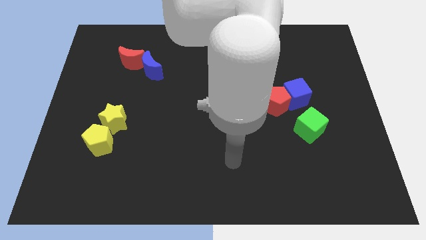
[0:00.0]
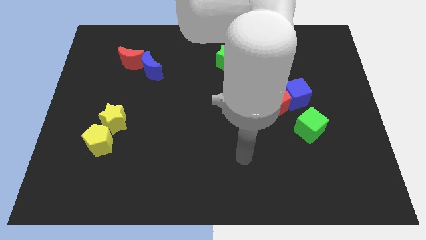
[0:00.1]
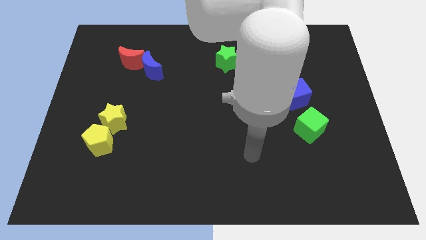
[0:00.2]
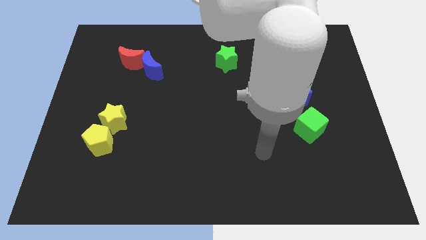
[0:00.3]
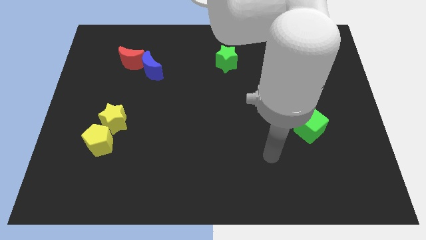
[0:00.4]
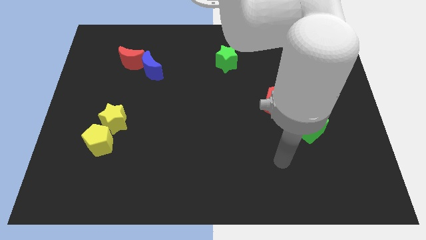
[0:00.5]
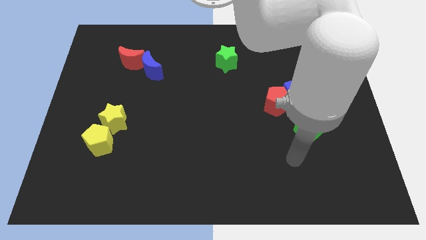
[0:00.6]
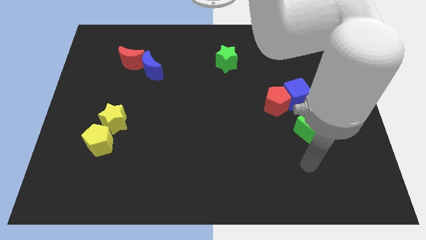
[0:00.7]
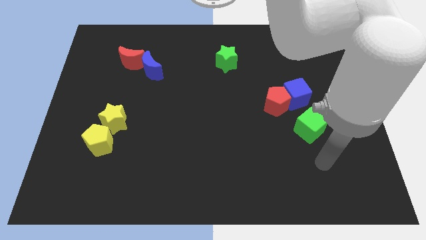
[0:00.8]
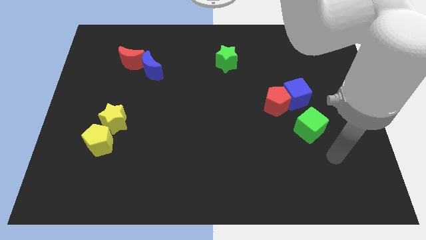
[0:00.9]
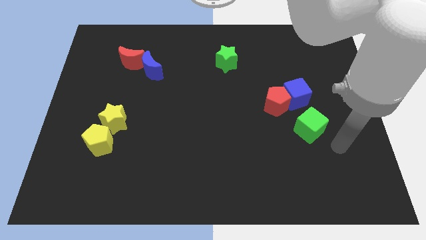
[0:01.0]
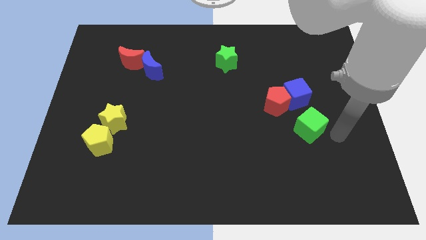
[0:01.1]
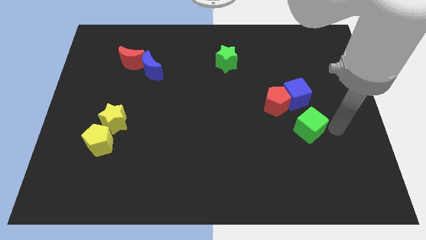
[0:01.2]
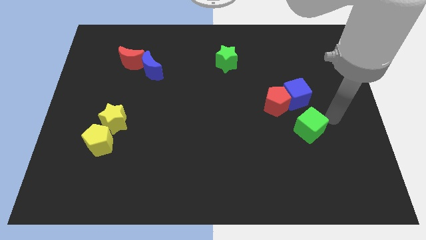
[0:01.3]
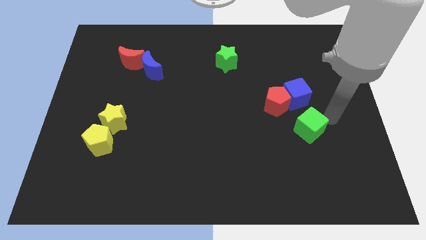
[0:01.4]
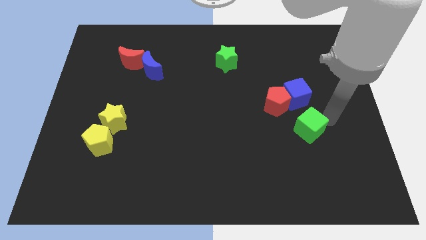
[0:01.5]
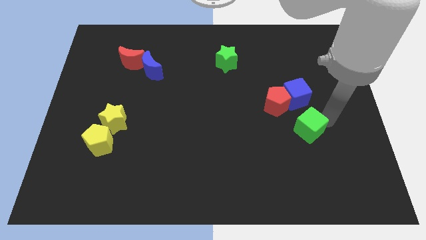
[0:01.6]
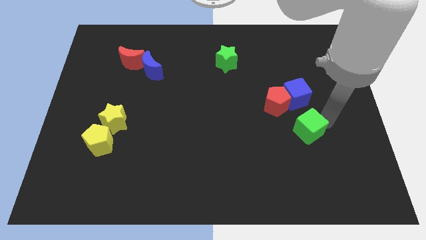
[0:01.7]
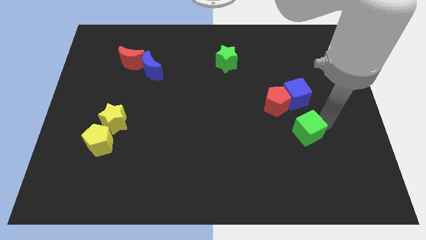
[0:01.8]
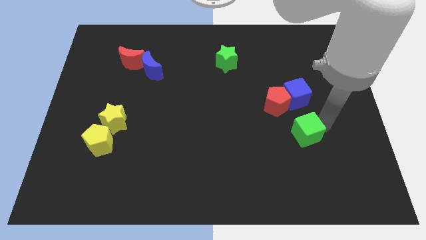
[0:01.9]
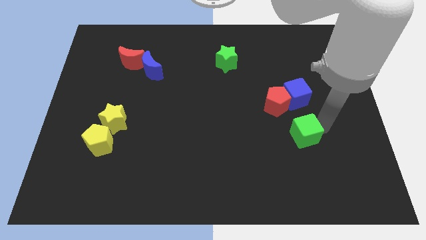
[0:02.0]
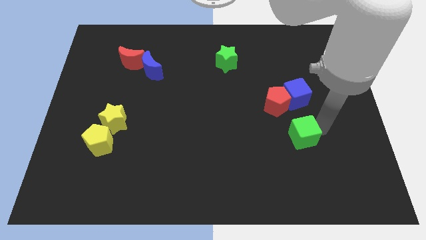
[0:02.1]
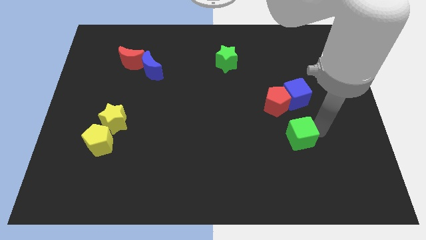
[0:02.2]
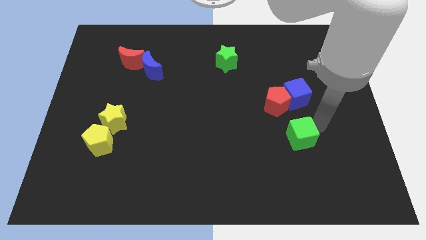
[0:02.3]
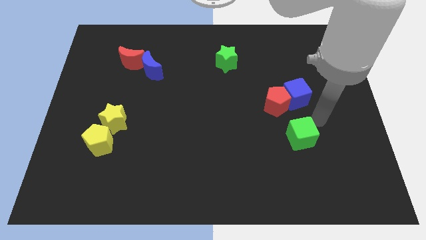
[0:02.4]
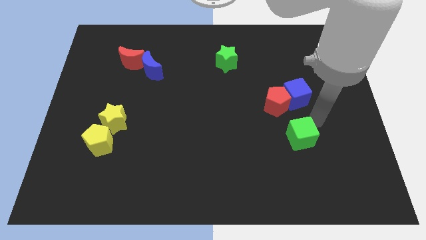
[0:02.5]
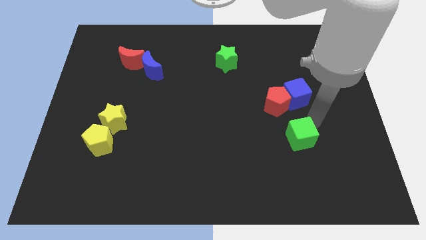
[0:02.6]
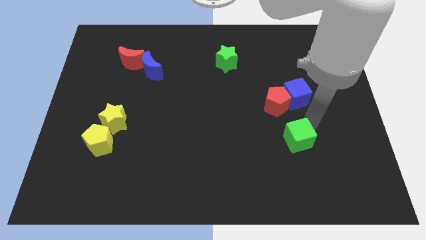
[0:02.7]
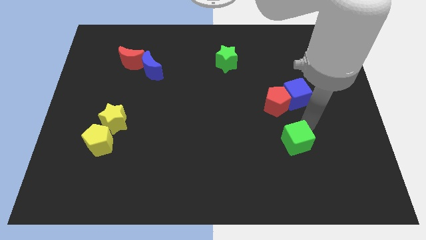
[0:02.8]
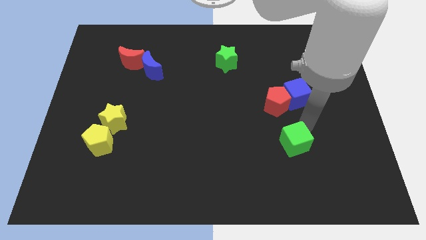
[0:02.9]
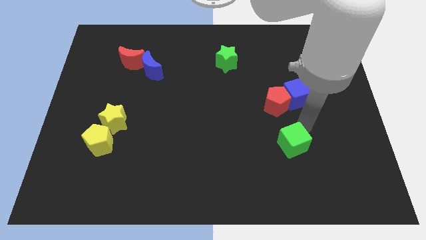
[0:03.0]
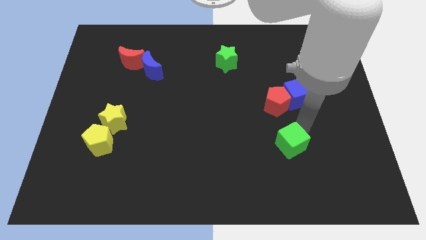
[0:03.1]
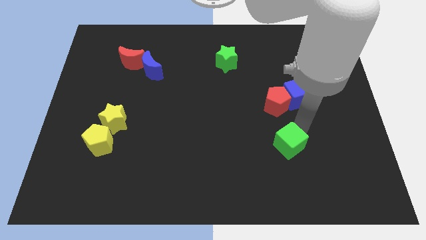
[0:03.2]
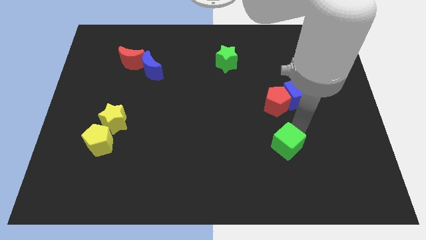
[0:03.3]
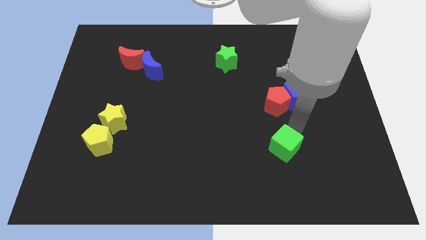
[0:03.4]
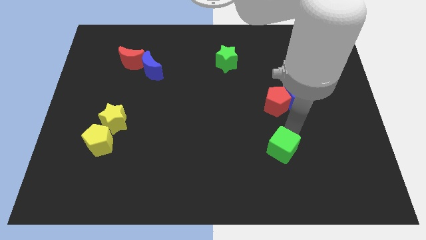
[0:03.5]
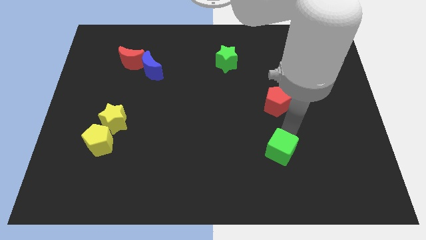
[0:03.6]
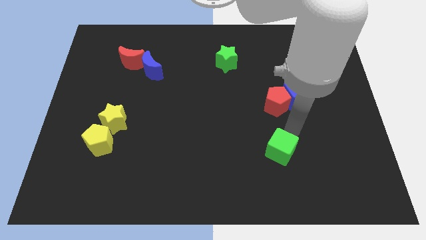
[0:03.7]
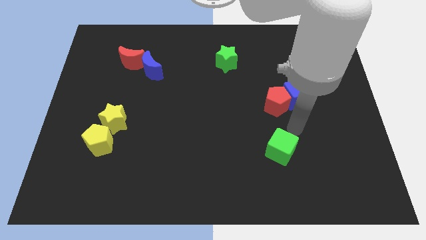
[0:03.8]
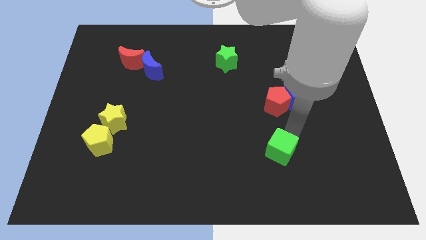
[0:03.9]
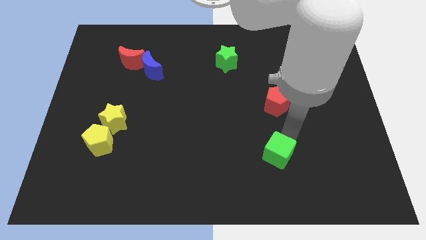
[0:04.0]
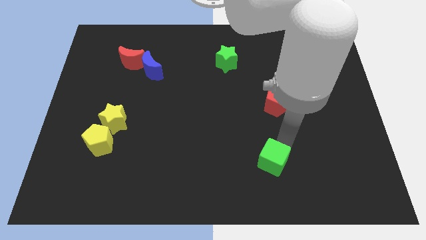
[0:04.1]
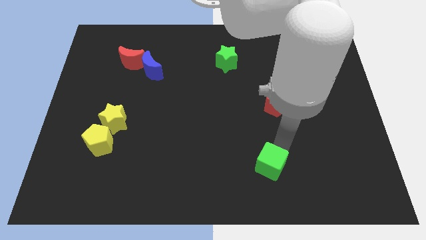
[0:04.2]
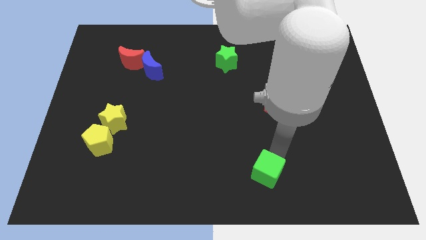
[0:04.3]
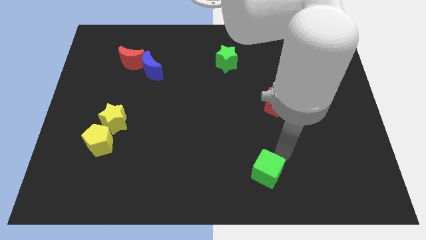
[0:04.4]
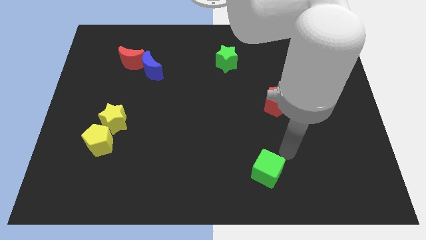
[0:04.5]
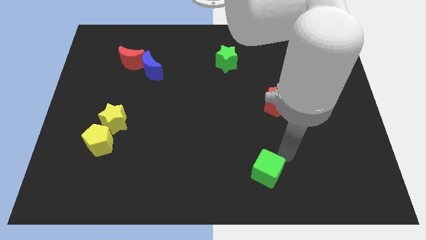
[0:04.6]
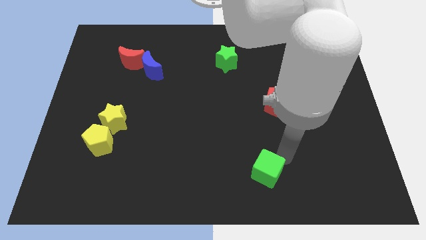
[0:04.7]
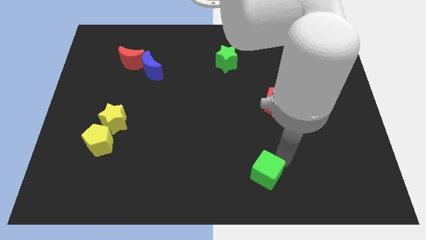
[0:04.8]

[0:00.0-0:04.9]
move the green cube to the bottom side

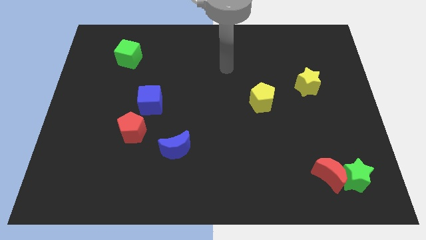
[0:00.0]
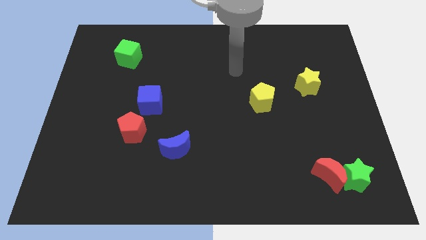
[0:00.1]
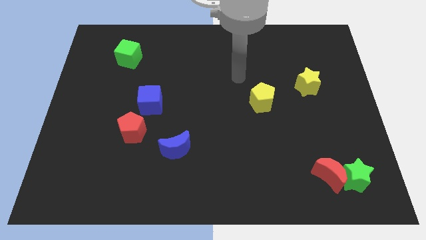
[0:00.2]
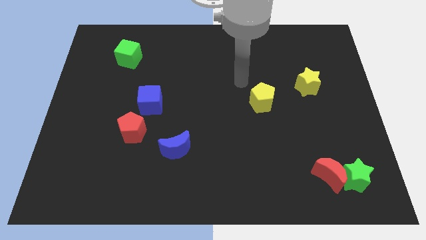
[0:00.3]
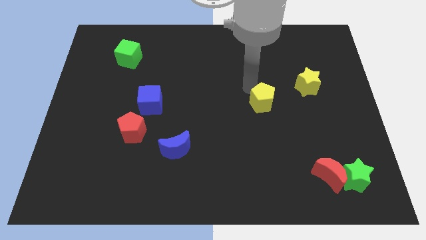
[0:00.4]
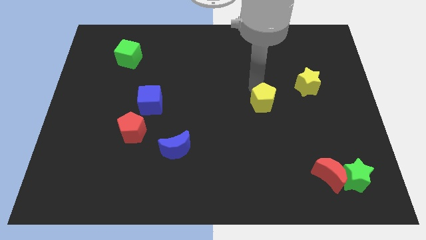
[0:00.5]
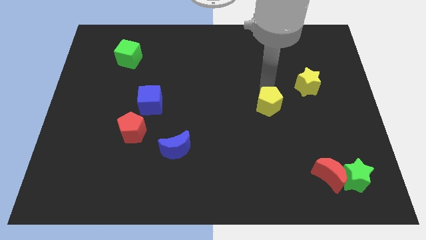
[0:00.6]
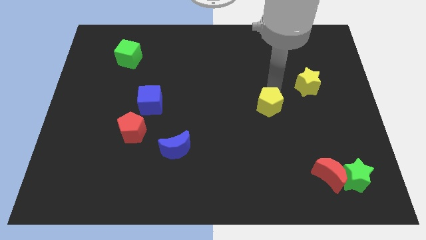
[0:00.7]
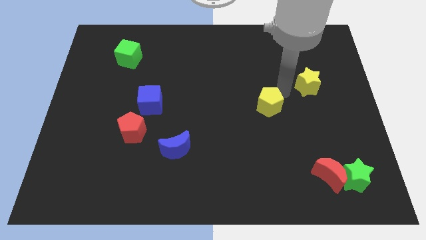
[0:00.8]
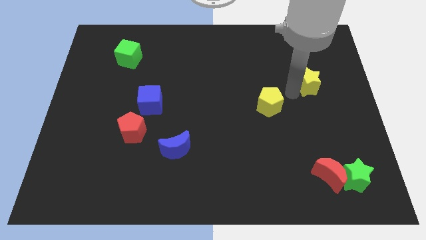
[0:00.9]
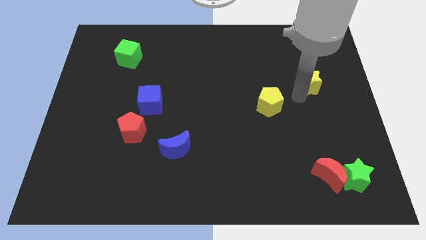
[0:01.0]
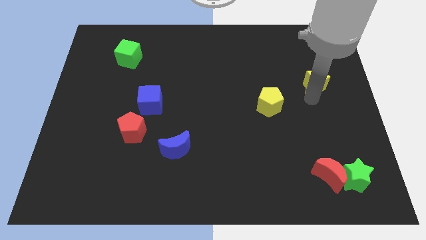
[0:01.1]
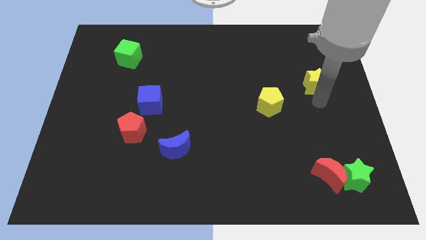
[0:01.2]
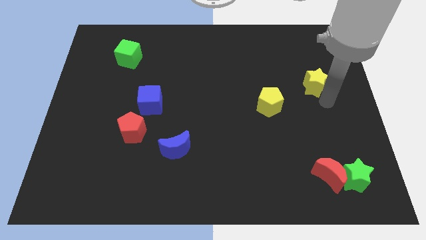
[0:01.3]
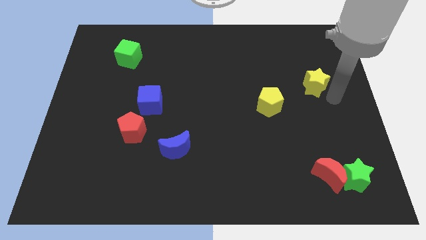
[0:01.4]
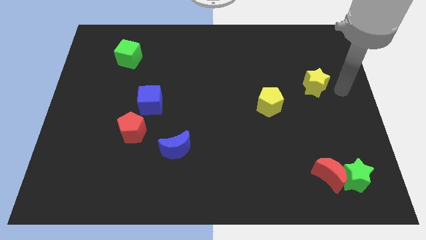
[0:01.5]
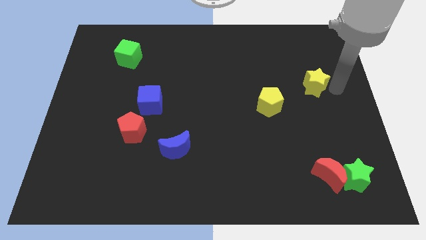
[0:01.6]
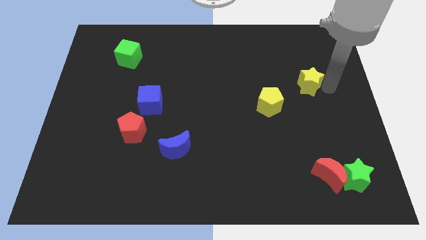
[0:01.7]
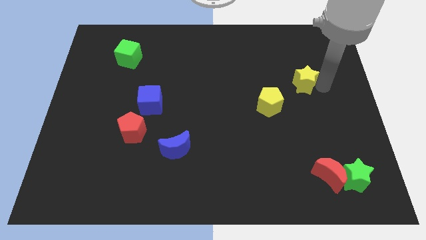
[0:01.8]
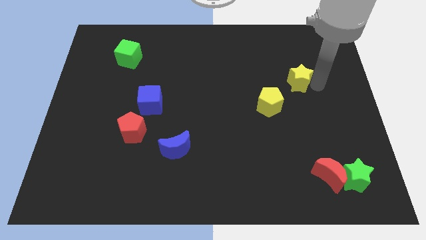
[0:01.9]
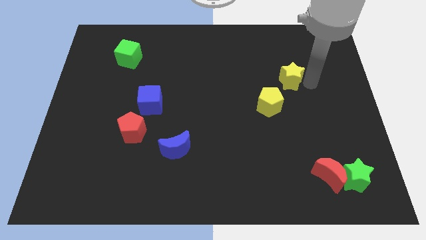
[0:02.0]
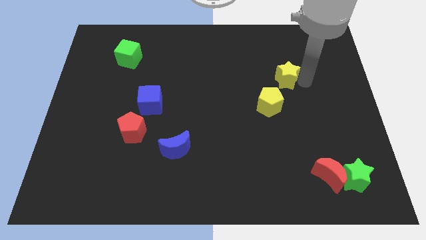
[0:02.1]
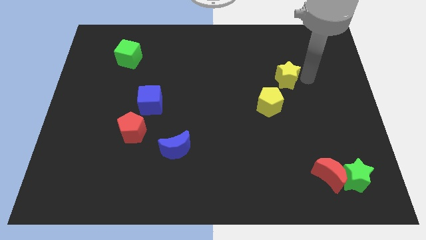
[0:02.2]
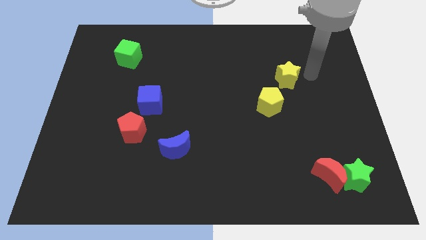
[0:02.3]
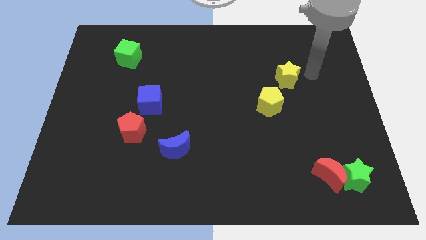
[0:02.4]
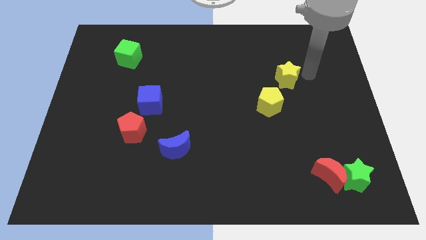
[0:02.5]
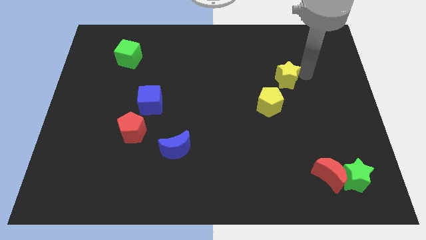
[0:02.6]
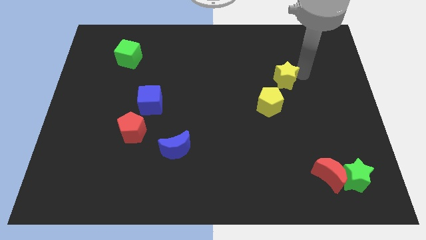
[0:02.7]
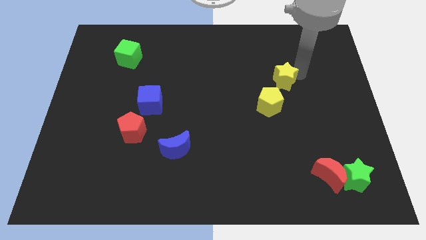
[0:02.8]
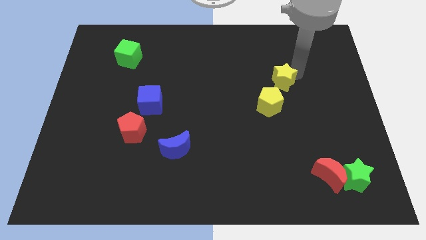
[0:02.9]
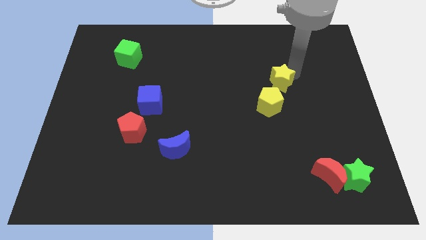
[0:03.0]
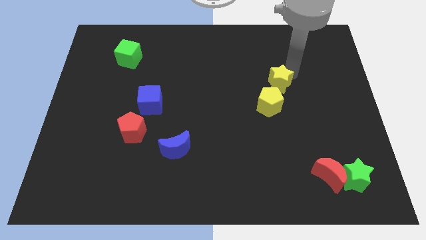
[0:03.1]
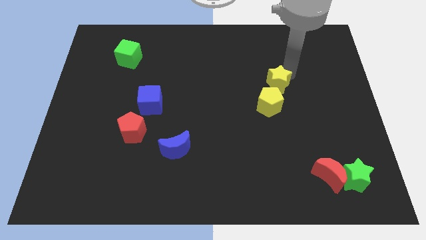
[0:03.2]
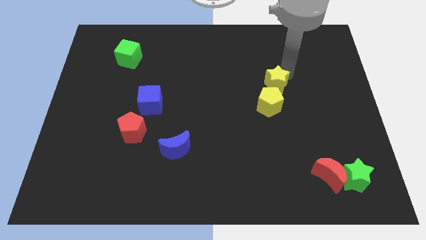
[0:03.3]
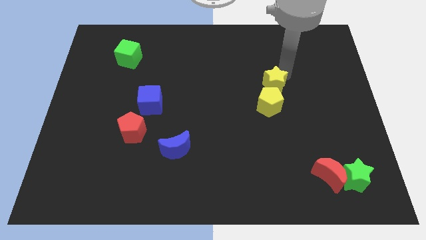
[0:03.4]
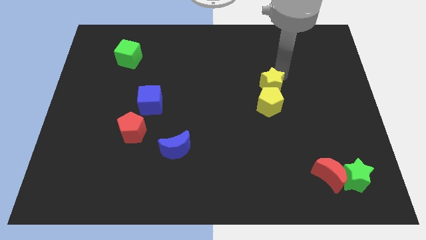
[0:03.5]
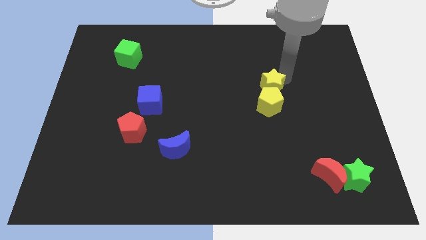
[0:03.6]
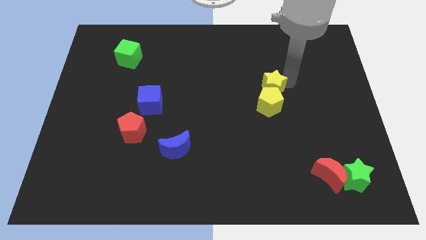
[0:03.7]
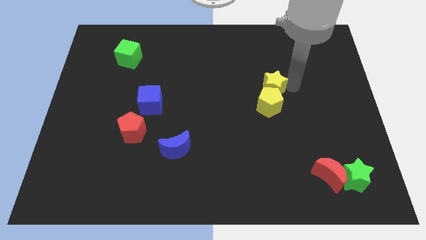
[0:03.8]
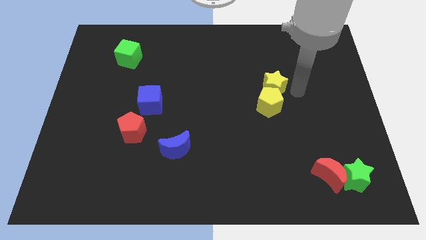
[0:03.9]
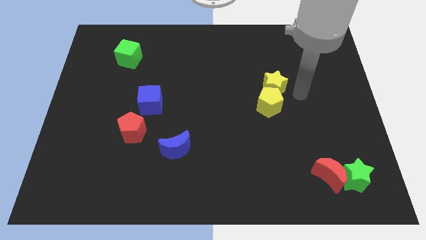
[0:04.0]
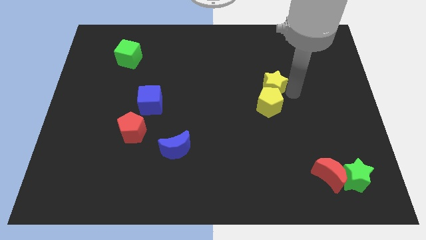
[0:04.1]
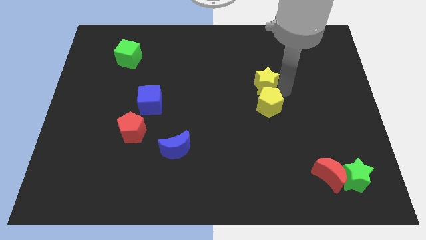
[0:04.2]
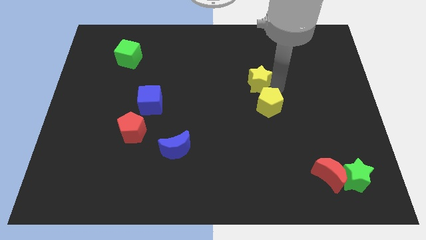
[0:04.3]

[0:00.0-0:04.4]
push the yellow star to the middle
